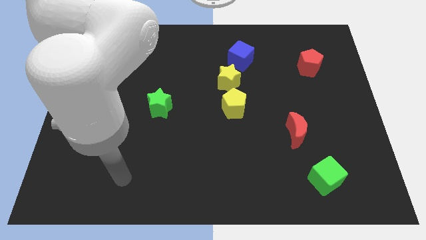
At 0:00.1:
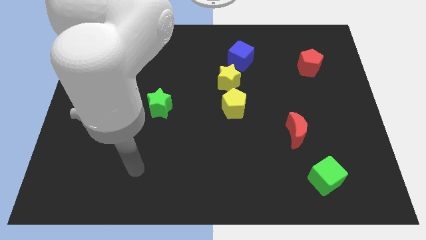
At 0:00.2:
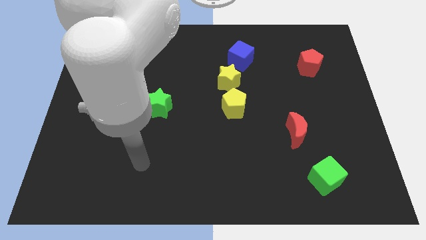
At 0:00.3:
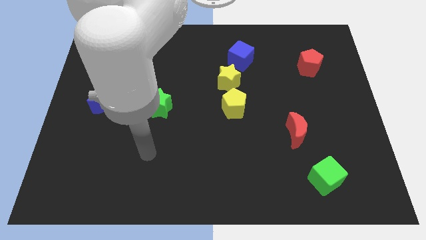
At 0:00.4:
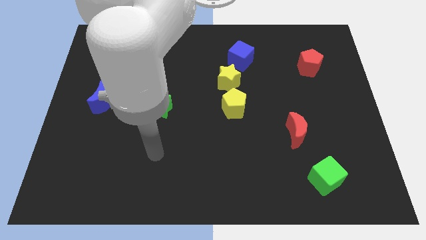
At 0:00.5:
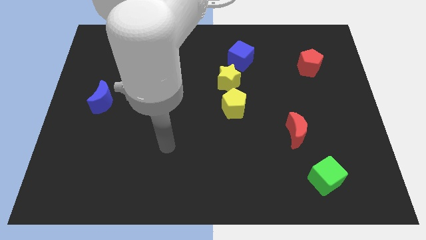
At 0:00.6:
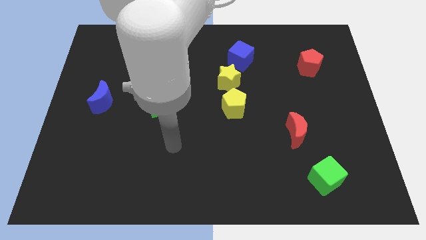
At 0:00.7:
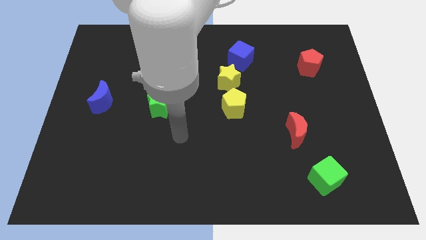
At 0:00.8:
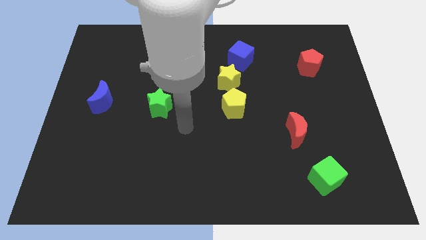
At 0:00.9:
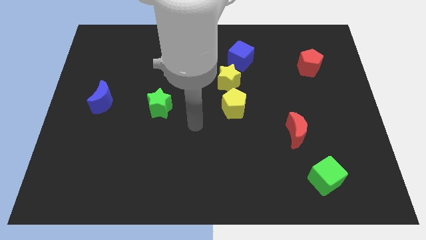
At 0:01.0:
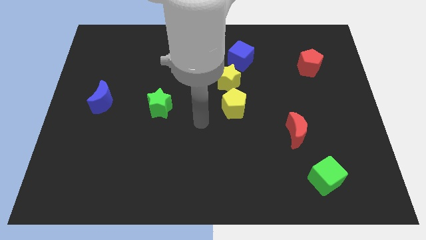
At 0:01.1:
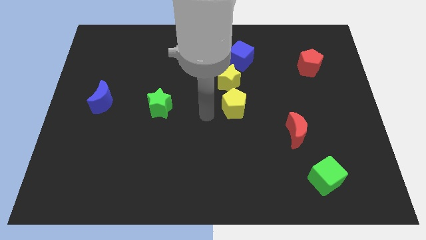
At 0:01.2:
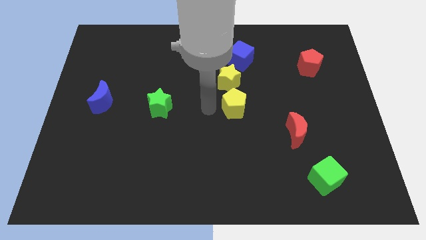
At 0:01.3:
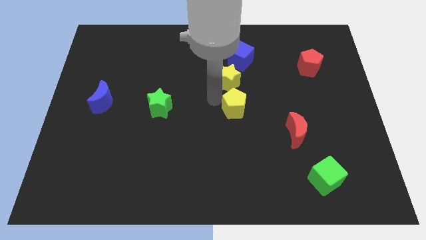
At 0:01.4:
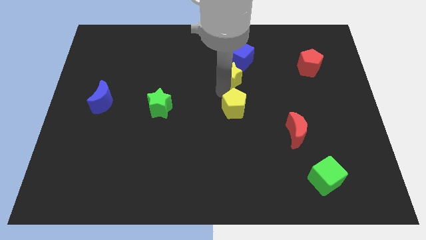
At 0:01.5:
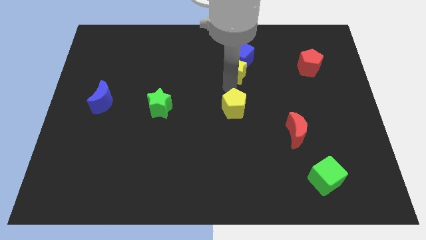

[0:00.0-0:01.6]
separate the yellow pentagon from the yellow star

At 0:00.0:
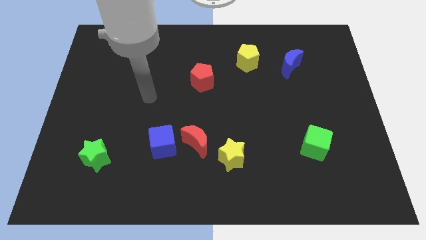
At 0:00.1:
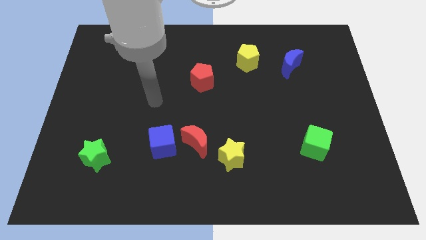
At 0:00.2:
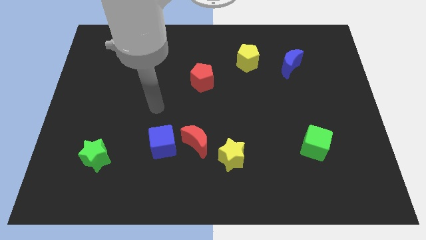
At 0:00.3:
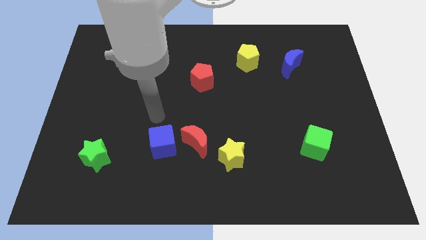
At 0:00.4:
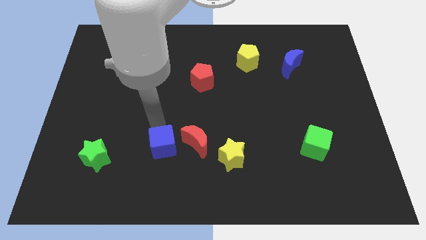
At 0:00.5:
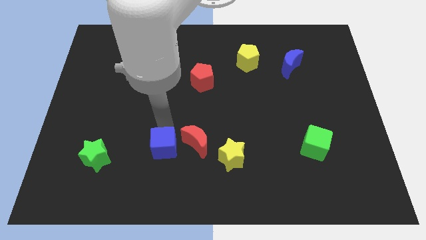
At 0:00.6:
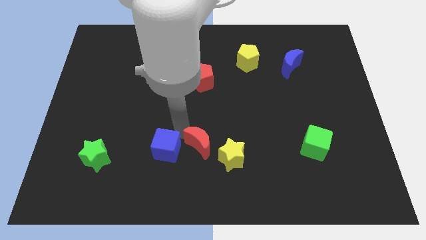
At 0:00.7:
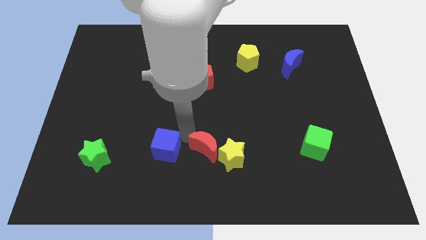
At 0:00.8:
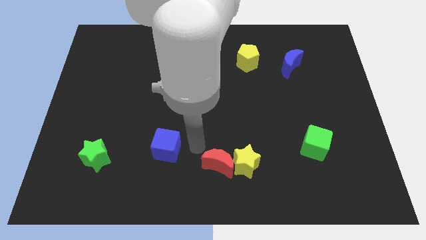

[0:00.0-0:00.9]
separate the blue cube from the red moon

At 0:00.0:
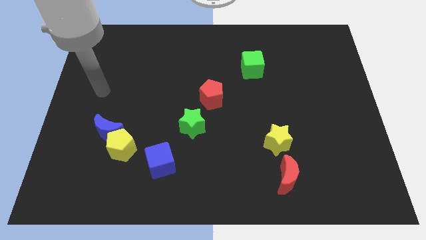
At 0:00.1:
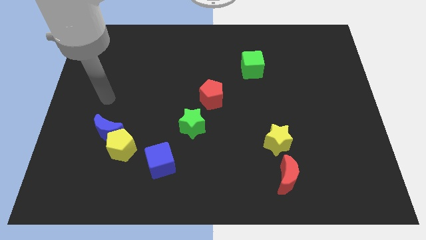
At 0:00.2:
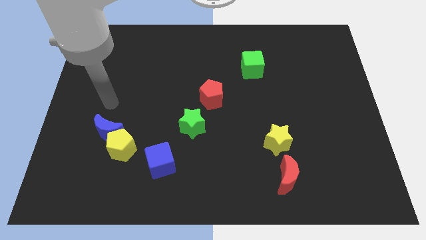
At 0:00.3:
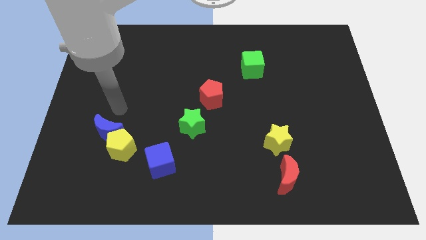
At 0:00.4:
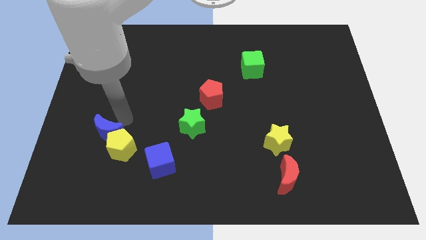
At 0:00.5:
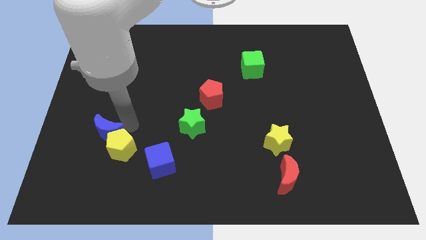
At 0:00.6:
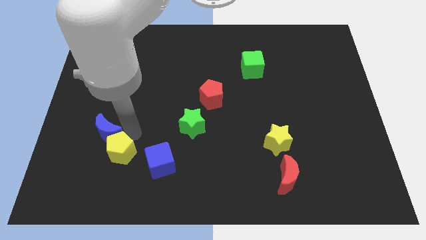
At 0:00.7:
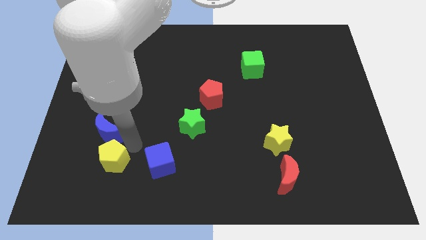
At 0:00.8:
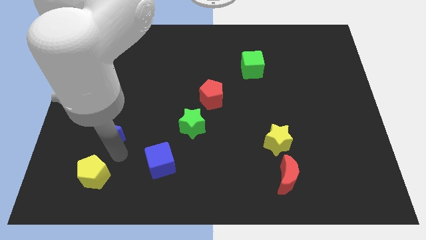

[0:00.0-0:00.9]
move the blue moon away from the yellow pentagon

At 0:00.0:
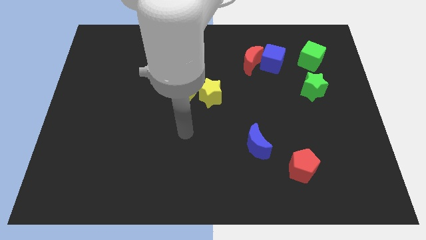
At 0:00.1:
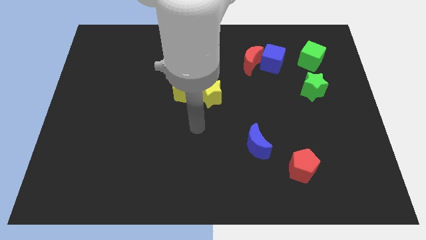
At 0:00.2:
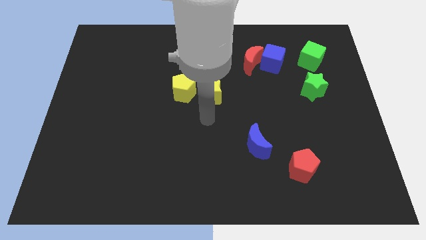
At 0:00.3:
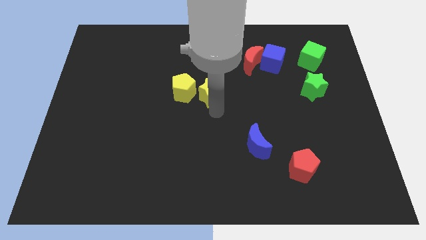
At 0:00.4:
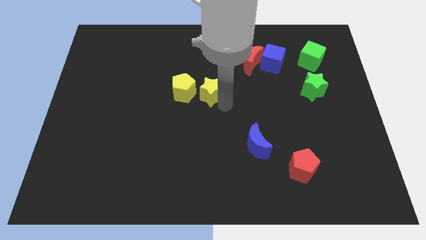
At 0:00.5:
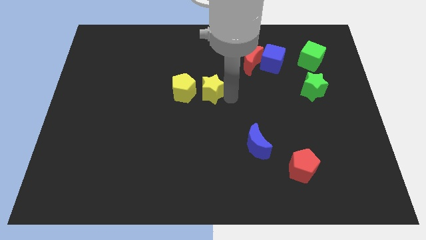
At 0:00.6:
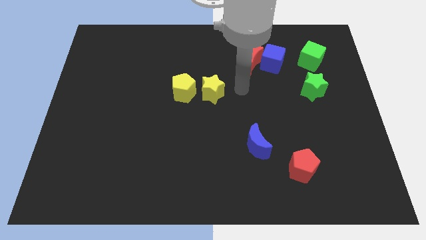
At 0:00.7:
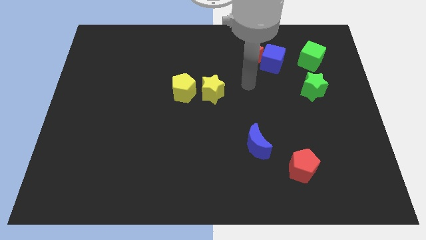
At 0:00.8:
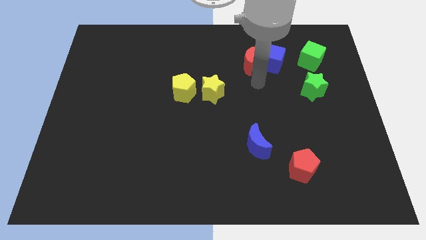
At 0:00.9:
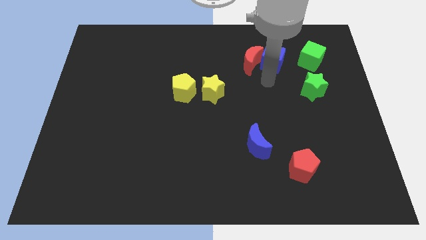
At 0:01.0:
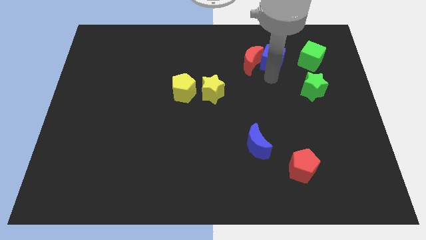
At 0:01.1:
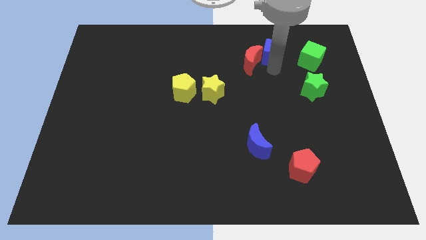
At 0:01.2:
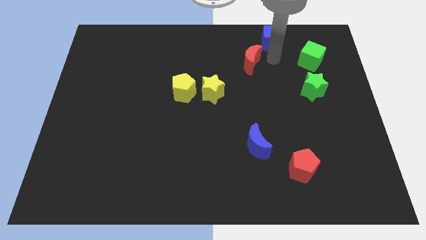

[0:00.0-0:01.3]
move the red moon away from the blue cube

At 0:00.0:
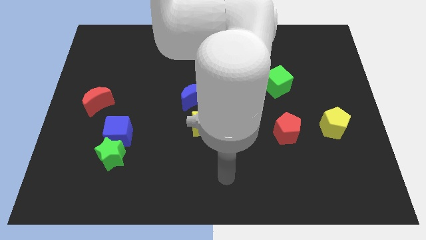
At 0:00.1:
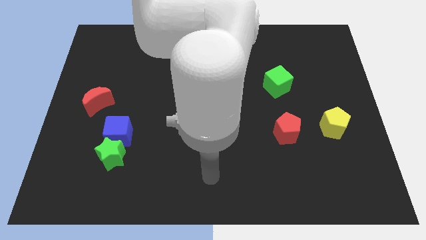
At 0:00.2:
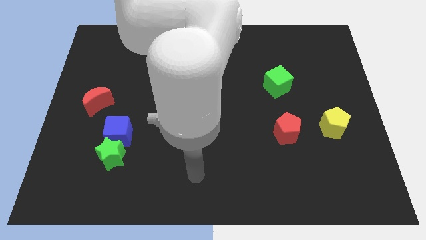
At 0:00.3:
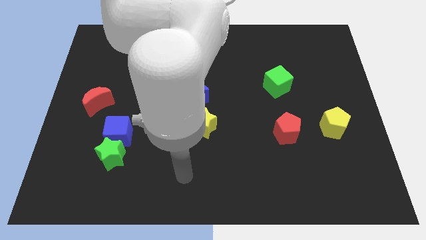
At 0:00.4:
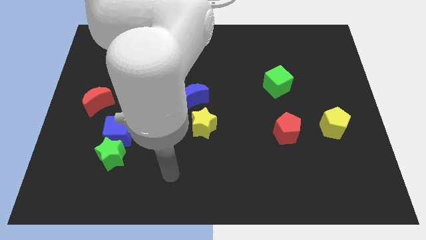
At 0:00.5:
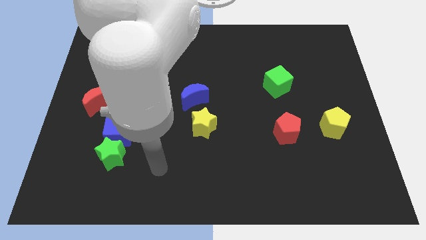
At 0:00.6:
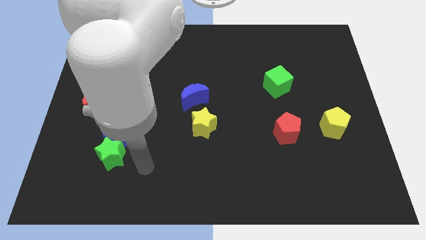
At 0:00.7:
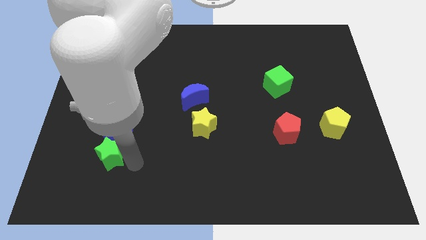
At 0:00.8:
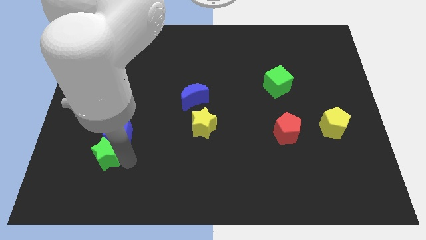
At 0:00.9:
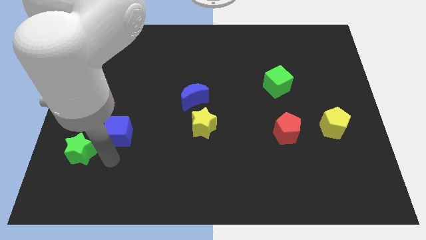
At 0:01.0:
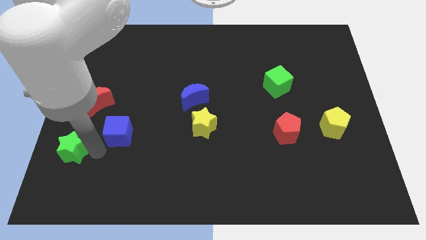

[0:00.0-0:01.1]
pull the blue cube apart from the green star

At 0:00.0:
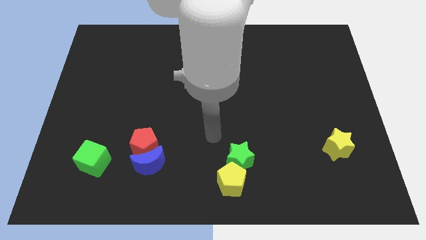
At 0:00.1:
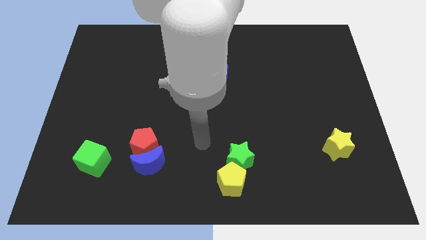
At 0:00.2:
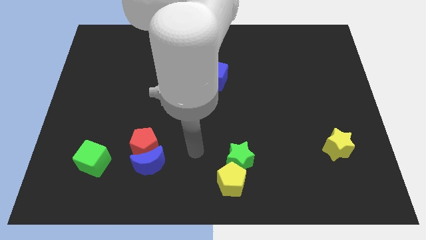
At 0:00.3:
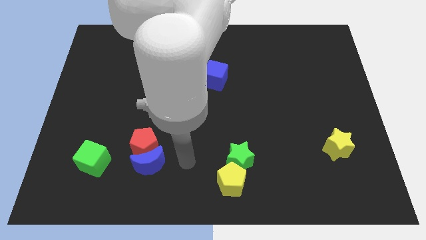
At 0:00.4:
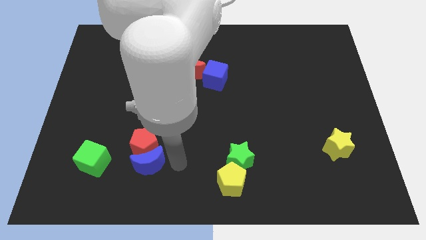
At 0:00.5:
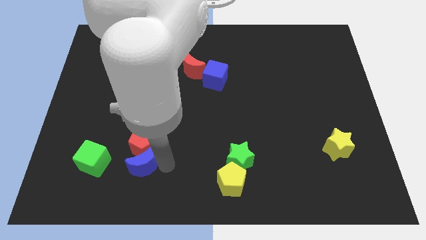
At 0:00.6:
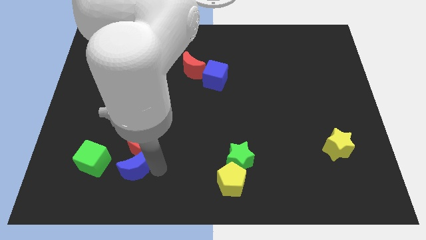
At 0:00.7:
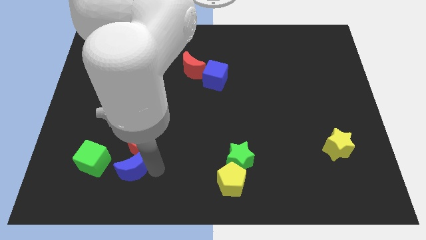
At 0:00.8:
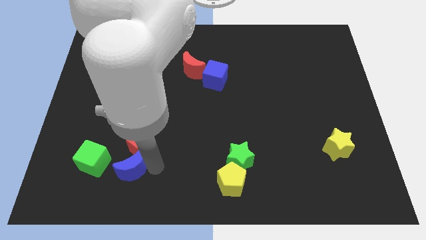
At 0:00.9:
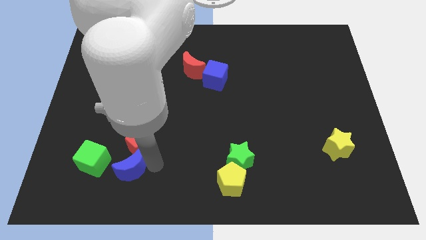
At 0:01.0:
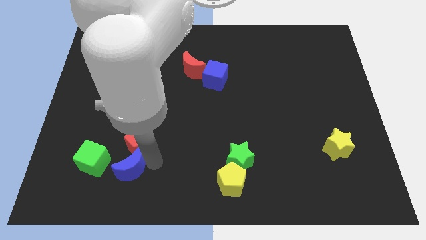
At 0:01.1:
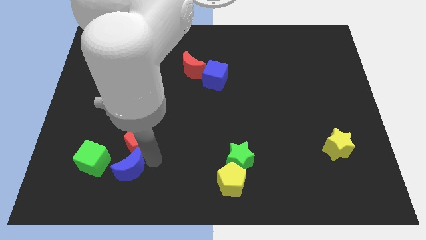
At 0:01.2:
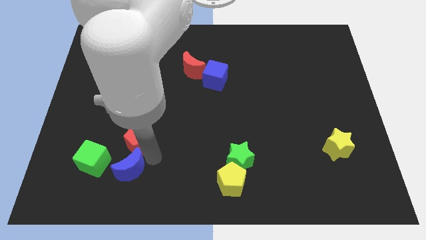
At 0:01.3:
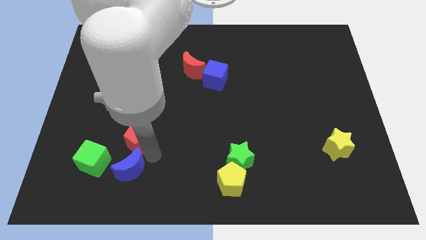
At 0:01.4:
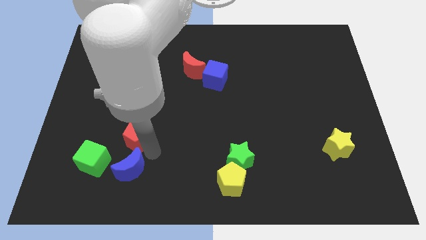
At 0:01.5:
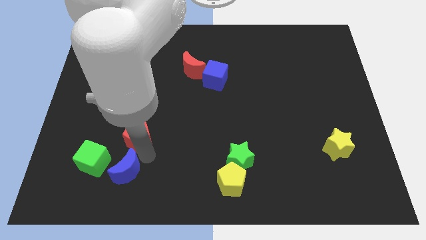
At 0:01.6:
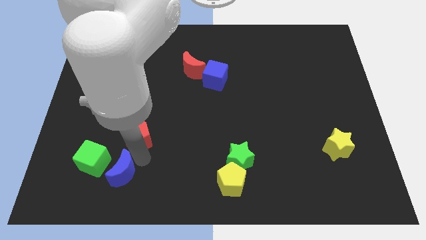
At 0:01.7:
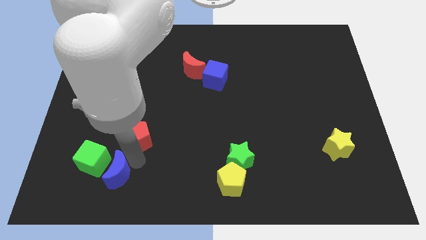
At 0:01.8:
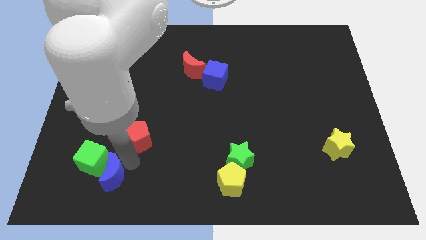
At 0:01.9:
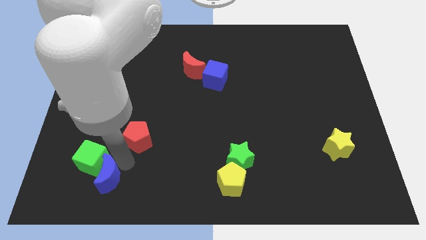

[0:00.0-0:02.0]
pull the red pentagon apart from the blue moon

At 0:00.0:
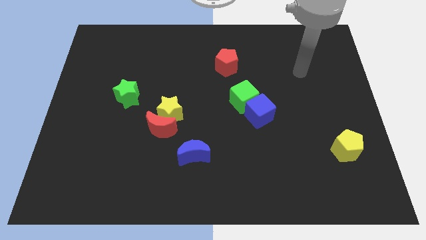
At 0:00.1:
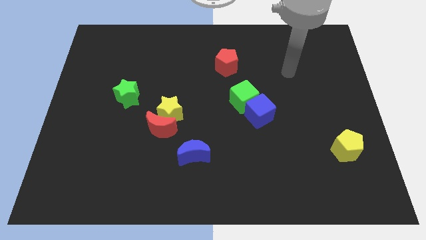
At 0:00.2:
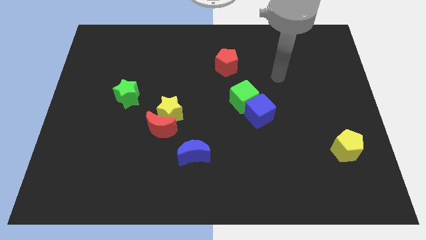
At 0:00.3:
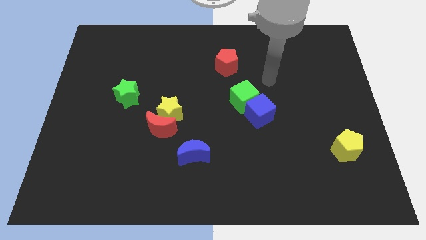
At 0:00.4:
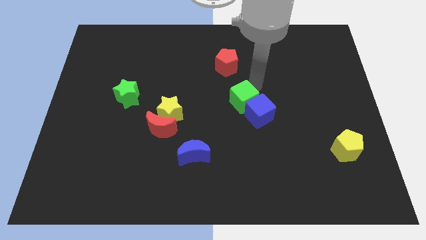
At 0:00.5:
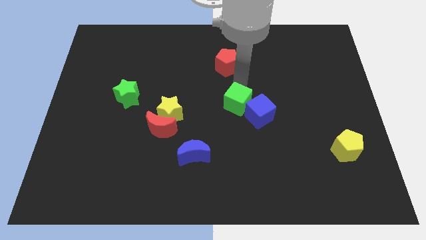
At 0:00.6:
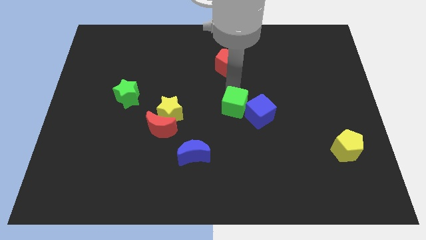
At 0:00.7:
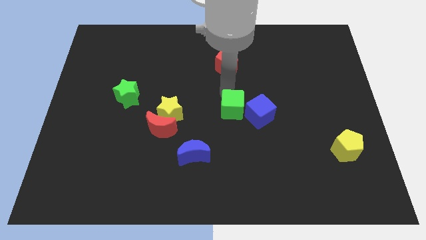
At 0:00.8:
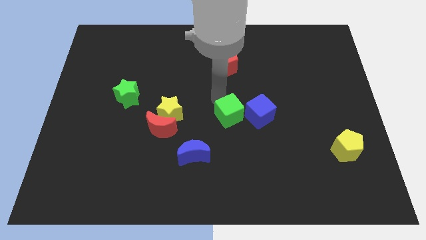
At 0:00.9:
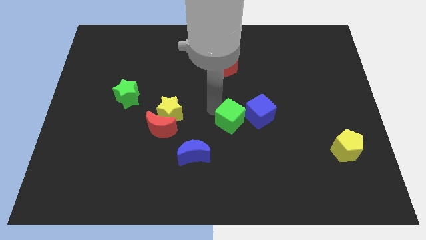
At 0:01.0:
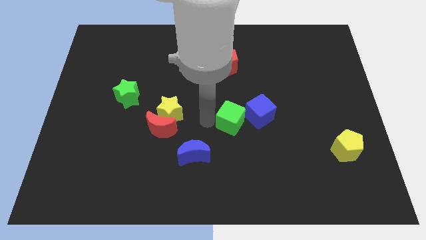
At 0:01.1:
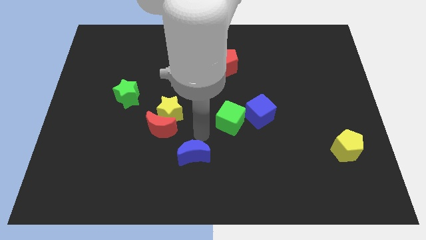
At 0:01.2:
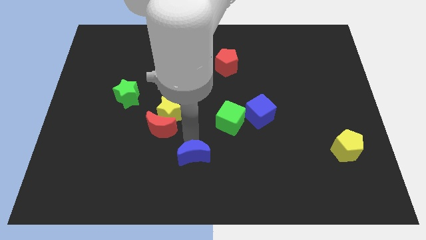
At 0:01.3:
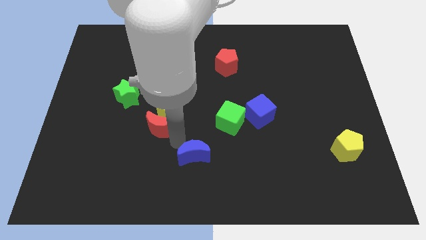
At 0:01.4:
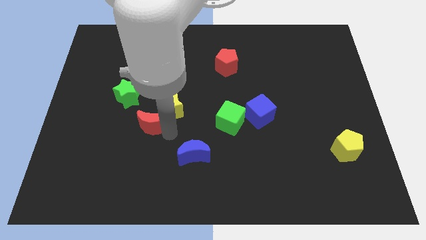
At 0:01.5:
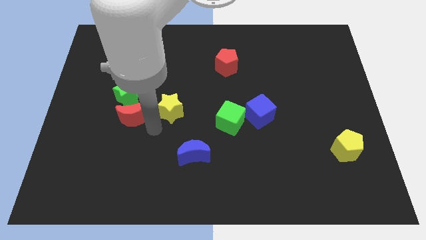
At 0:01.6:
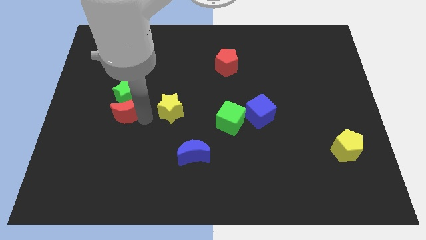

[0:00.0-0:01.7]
move the yellow star away from the red moon
